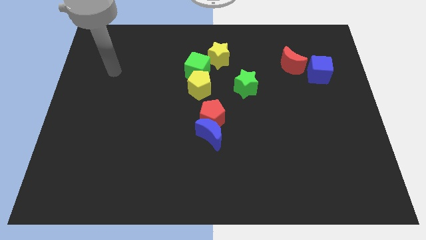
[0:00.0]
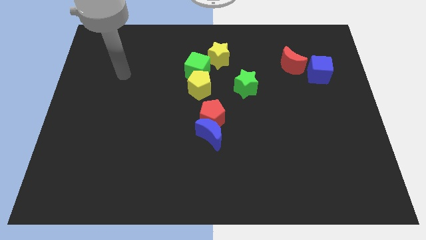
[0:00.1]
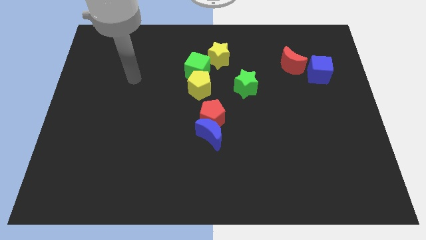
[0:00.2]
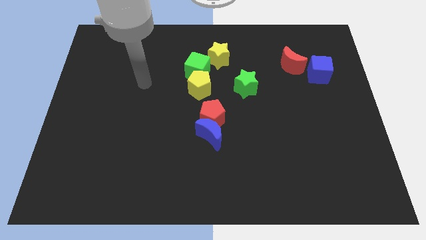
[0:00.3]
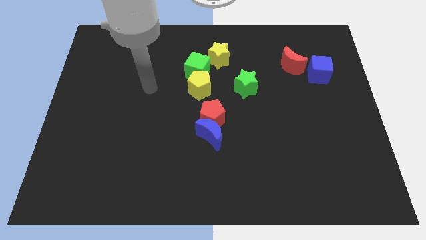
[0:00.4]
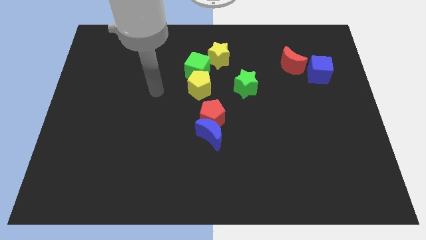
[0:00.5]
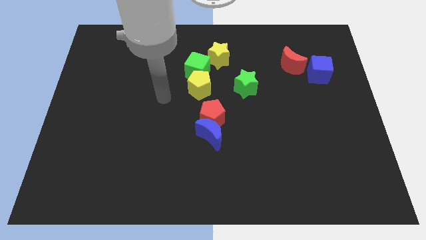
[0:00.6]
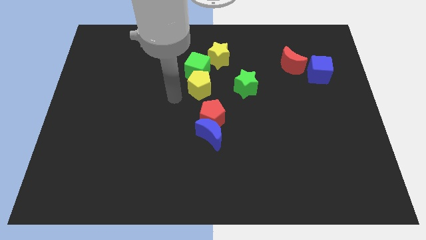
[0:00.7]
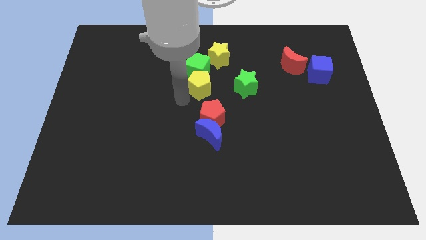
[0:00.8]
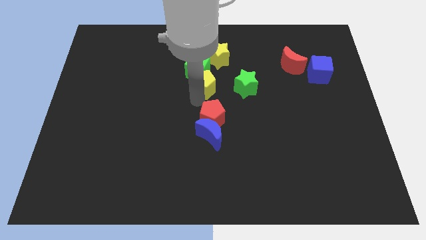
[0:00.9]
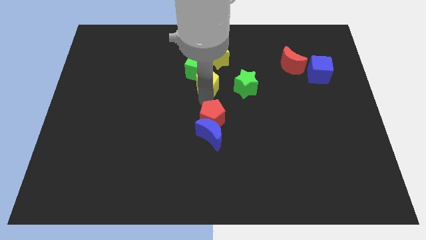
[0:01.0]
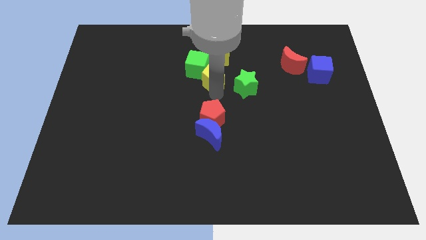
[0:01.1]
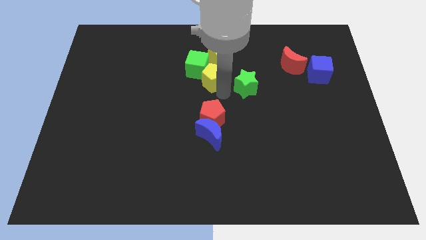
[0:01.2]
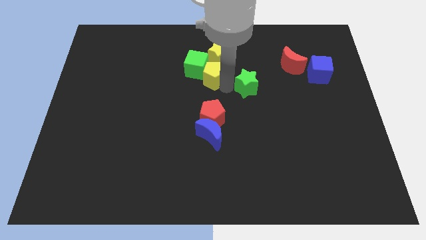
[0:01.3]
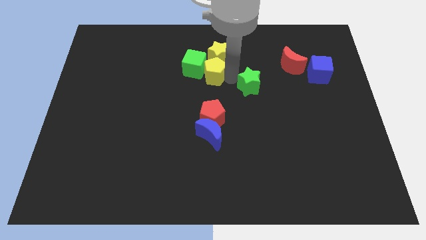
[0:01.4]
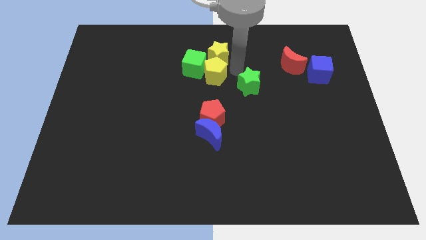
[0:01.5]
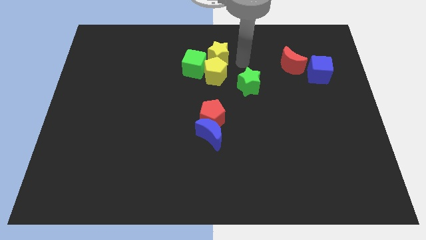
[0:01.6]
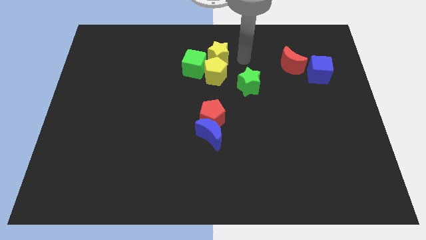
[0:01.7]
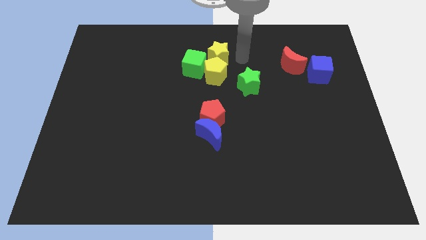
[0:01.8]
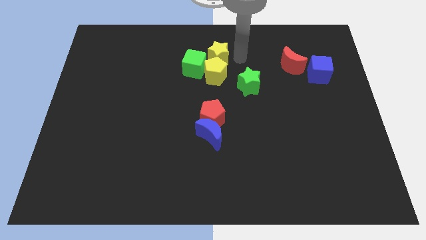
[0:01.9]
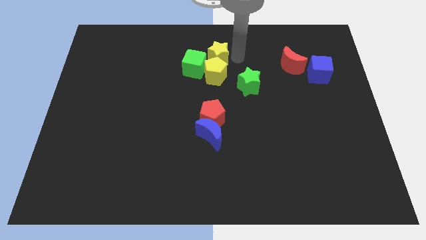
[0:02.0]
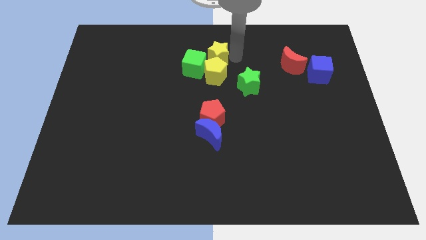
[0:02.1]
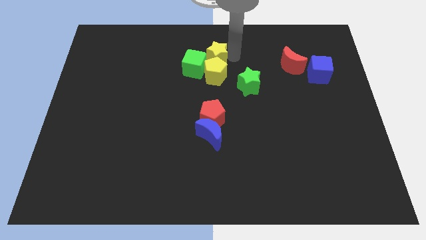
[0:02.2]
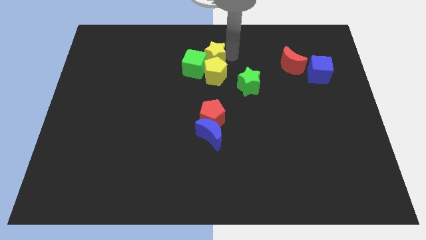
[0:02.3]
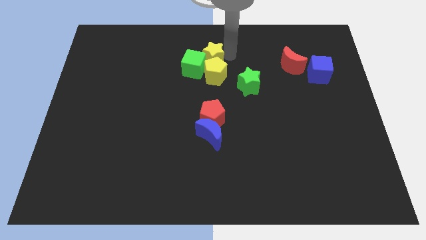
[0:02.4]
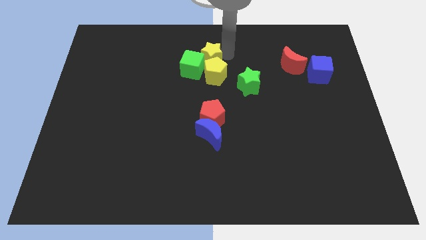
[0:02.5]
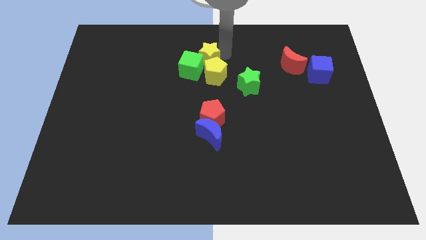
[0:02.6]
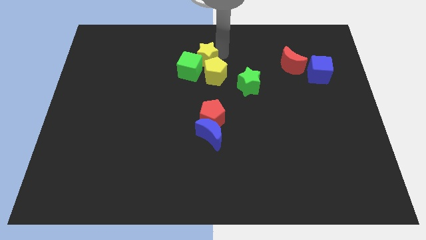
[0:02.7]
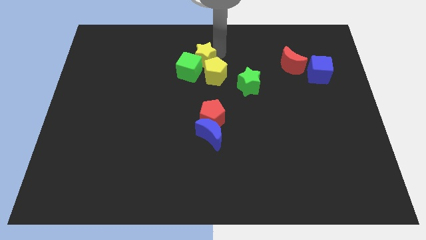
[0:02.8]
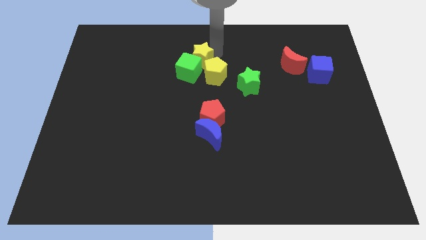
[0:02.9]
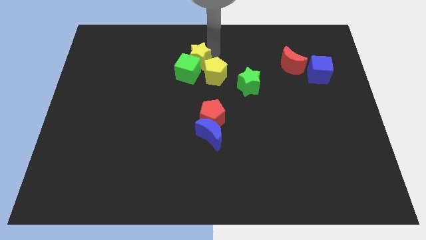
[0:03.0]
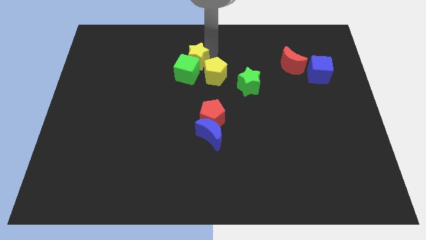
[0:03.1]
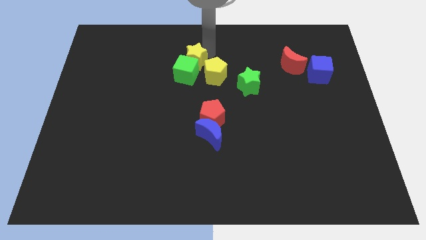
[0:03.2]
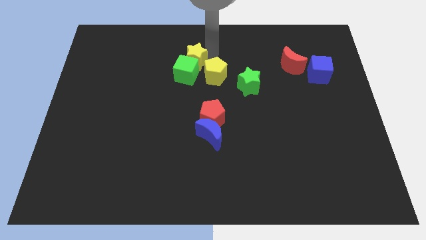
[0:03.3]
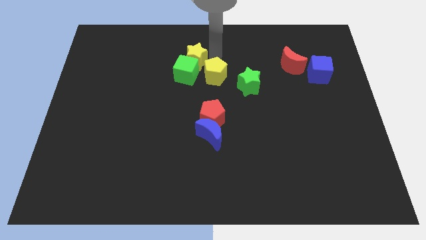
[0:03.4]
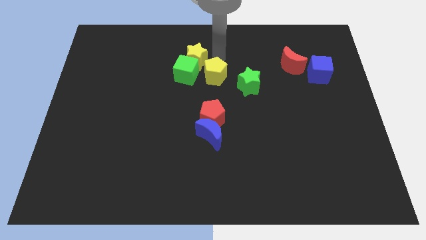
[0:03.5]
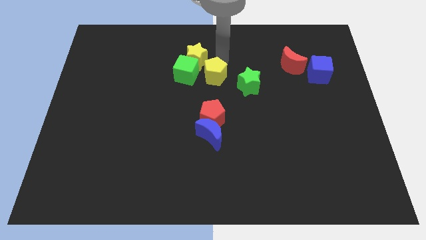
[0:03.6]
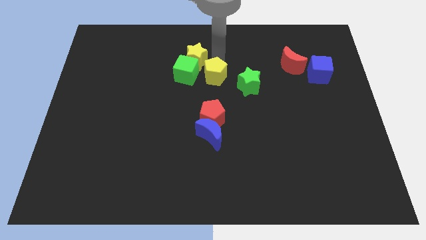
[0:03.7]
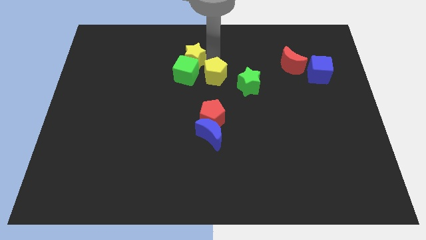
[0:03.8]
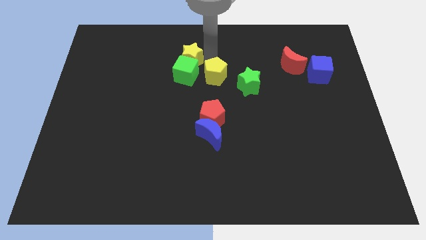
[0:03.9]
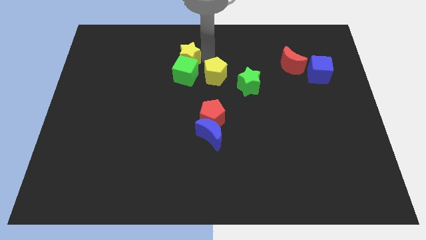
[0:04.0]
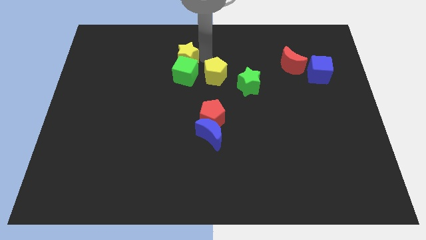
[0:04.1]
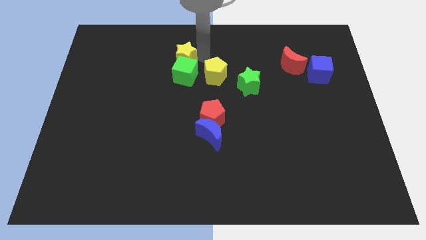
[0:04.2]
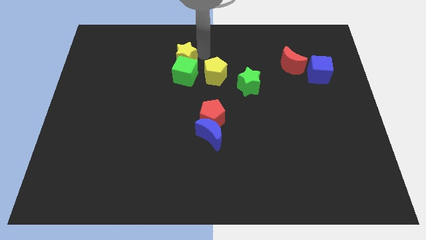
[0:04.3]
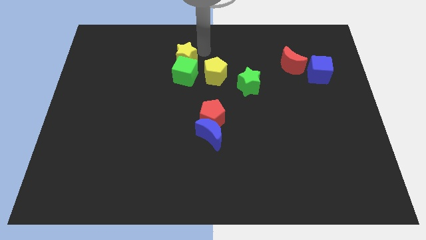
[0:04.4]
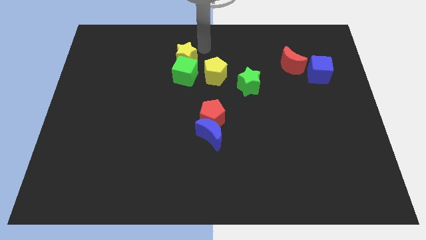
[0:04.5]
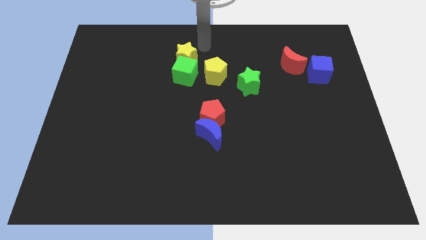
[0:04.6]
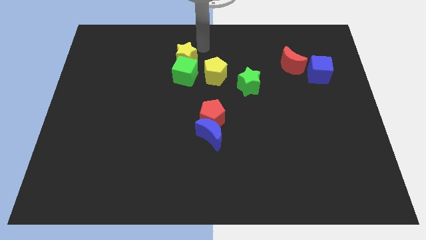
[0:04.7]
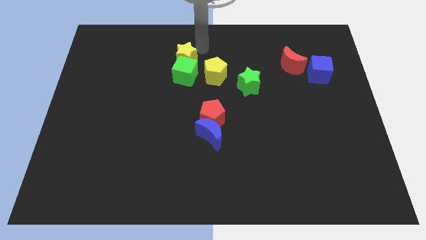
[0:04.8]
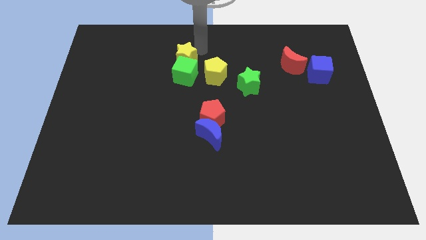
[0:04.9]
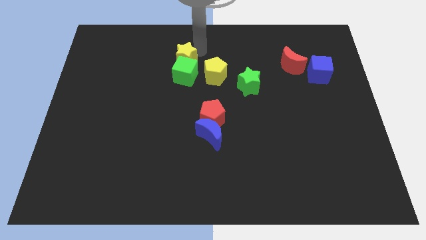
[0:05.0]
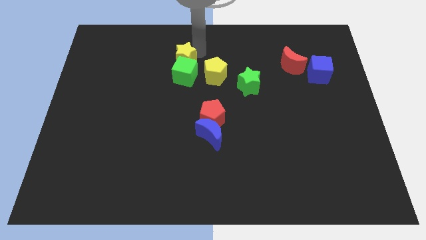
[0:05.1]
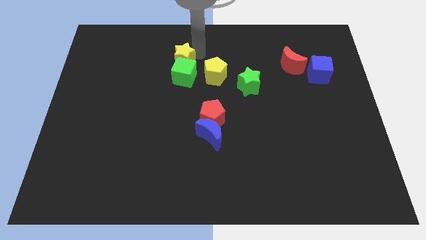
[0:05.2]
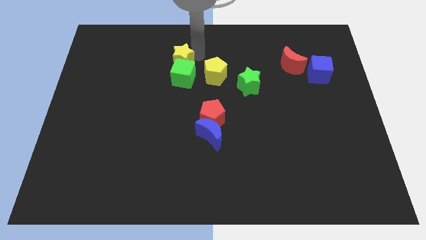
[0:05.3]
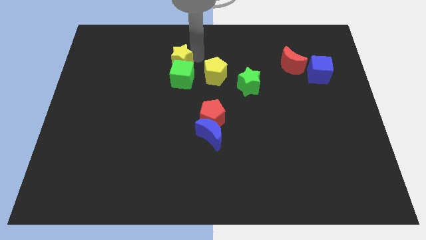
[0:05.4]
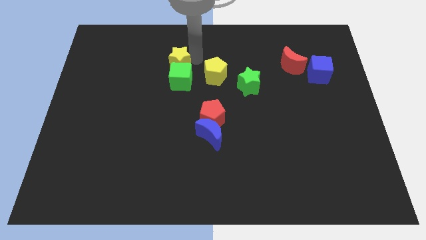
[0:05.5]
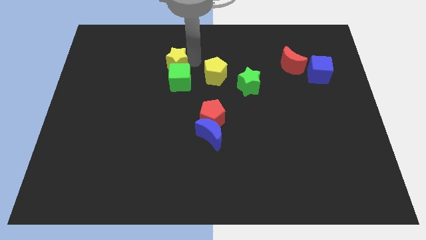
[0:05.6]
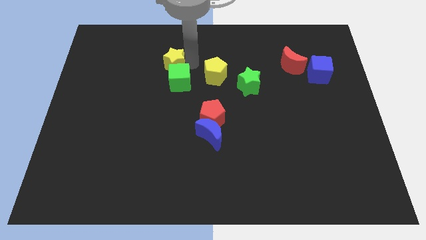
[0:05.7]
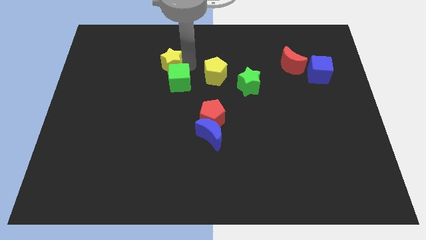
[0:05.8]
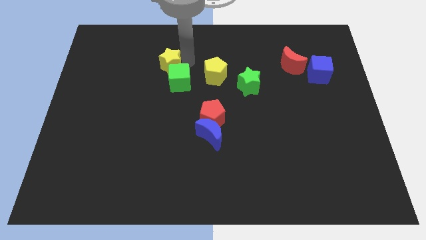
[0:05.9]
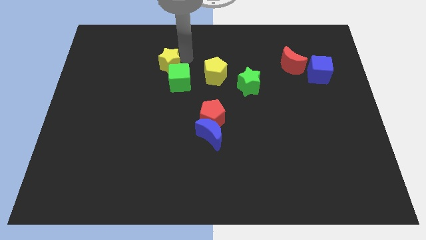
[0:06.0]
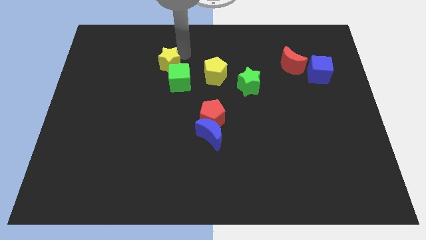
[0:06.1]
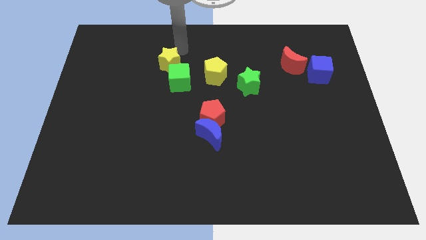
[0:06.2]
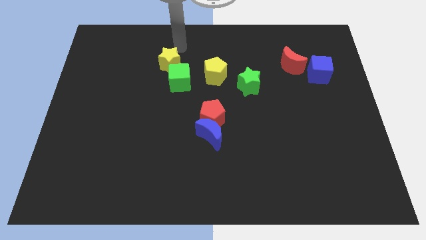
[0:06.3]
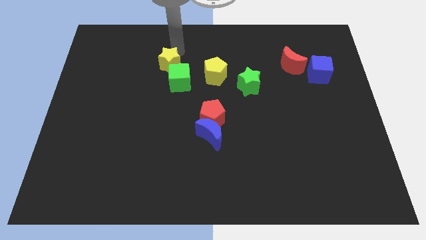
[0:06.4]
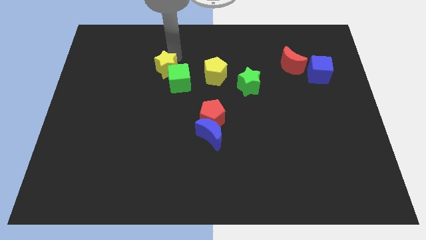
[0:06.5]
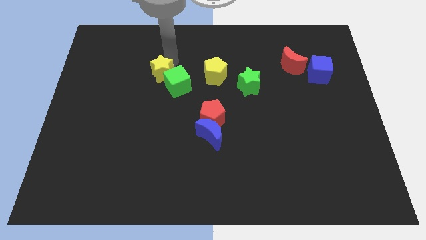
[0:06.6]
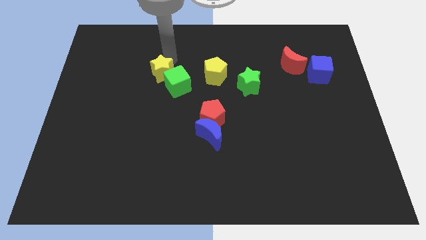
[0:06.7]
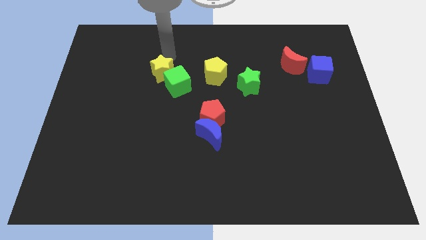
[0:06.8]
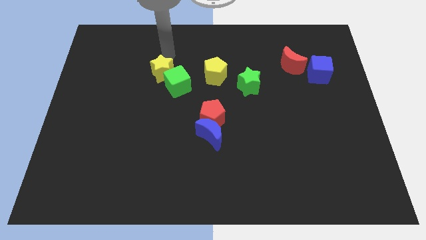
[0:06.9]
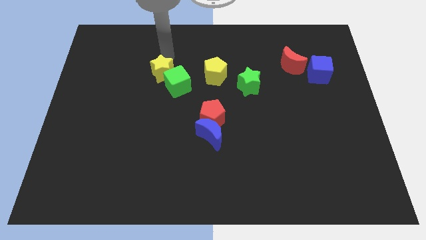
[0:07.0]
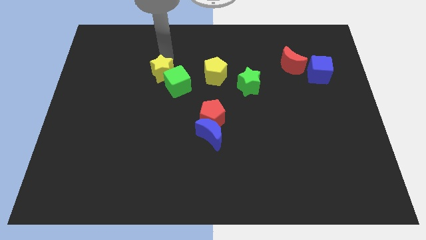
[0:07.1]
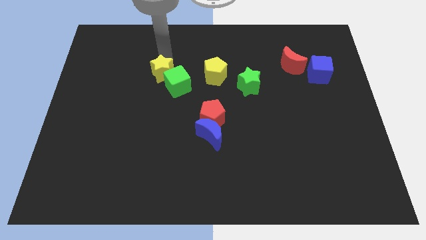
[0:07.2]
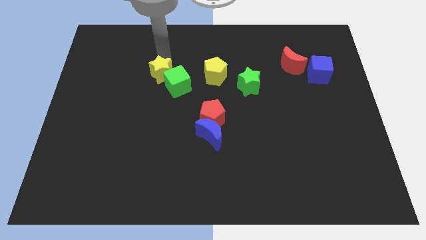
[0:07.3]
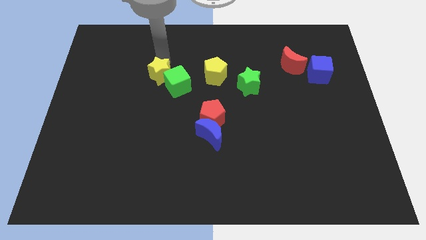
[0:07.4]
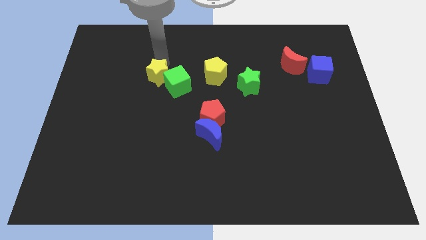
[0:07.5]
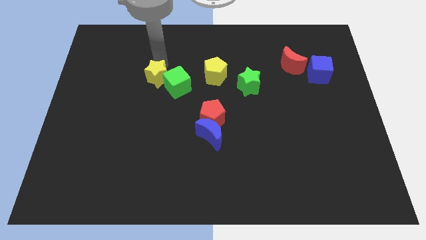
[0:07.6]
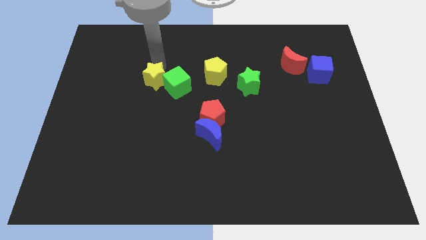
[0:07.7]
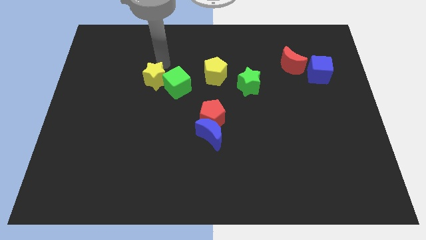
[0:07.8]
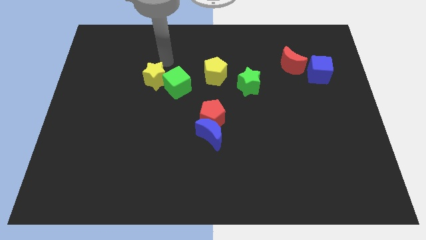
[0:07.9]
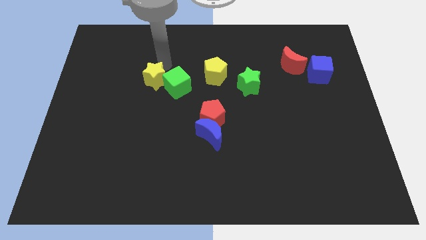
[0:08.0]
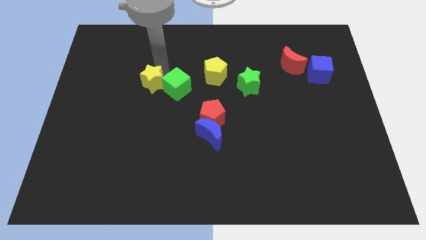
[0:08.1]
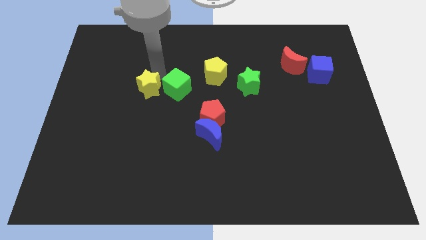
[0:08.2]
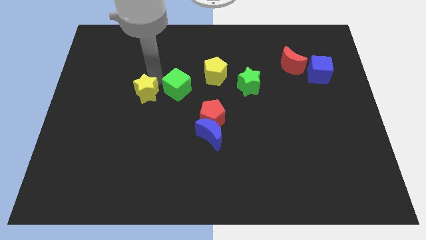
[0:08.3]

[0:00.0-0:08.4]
move the yellow star downwards and left
